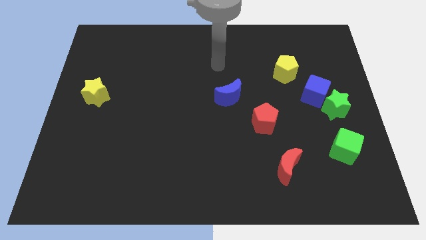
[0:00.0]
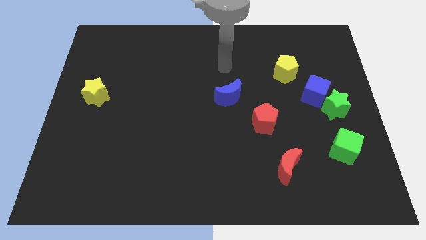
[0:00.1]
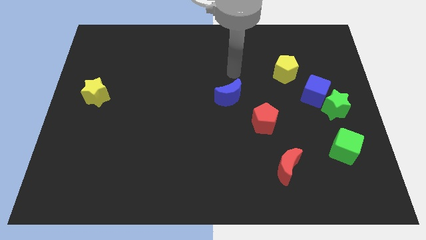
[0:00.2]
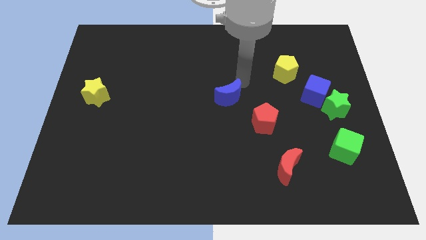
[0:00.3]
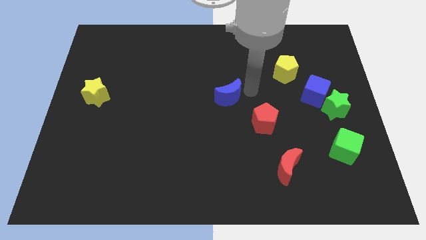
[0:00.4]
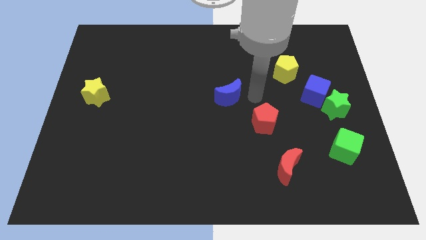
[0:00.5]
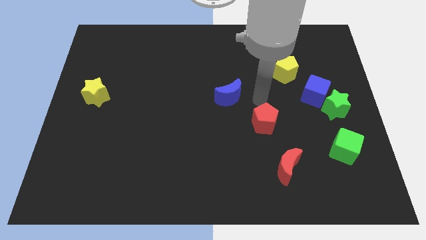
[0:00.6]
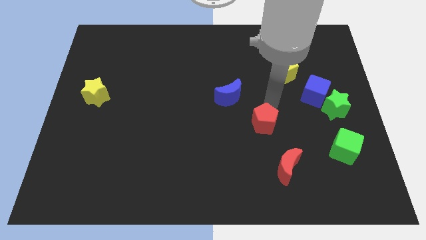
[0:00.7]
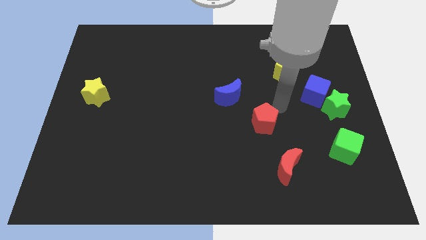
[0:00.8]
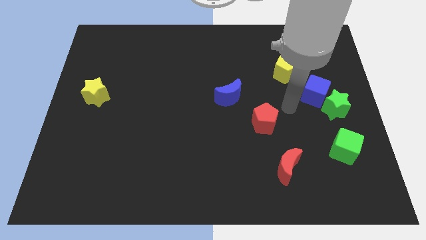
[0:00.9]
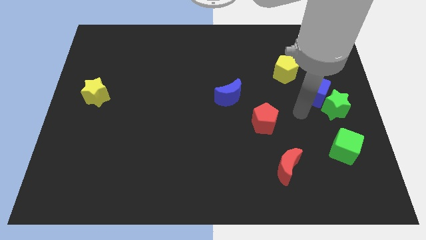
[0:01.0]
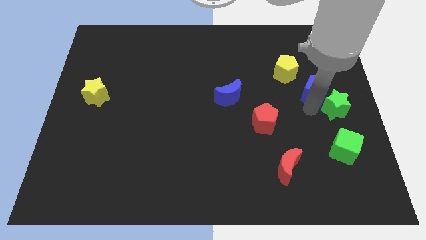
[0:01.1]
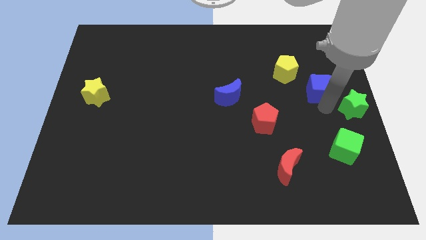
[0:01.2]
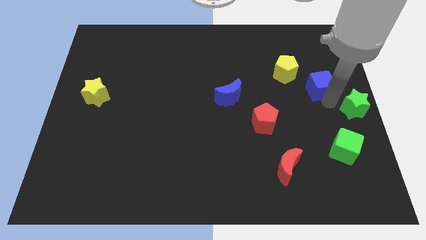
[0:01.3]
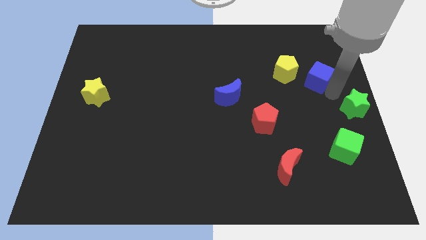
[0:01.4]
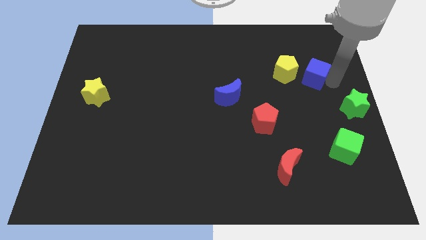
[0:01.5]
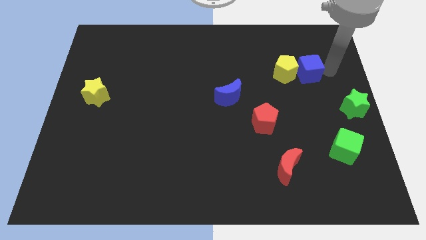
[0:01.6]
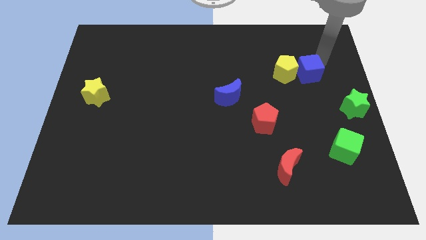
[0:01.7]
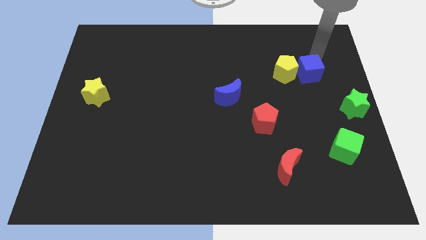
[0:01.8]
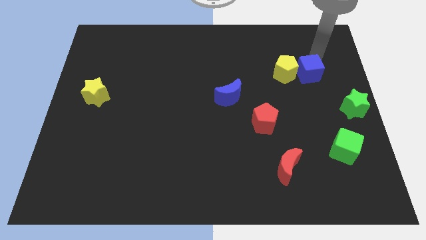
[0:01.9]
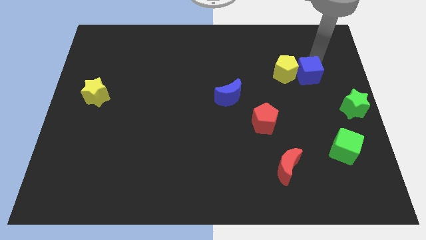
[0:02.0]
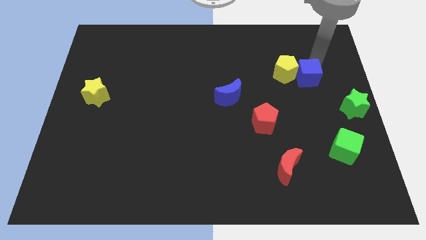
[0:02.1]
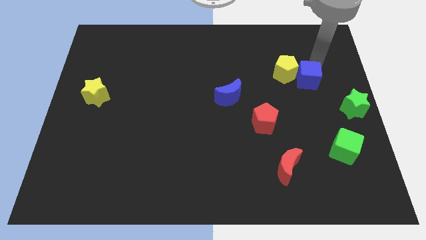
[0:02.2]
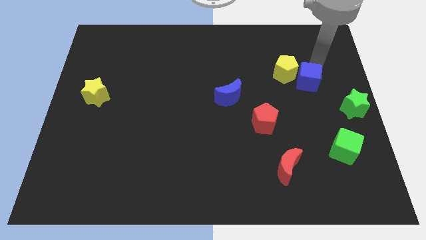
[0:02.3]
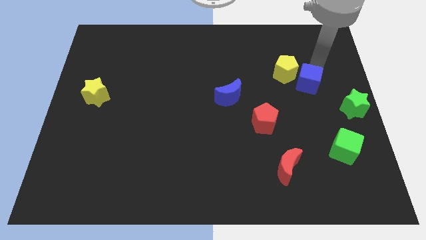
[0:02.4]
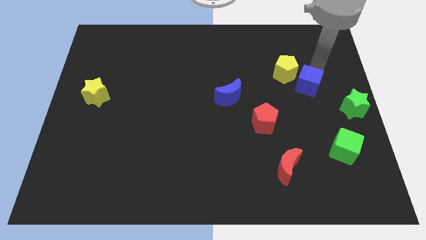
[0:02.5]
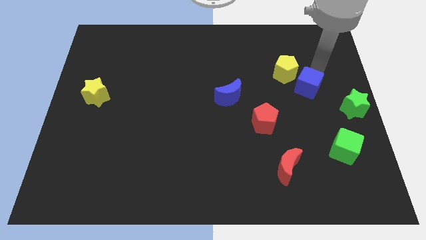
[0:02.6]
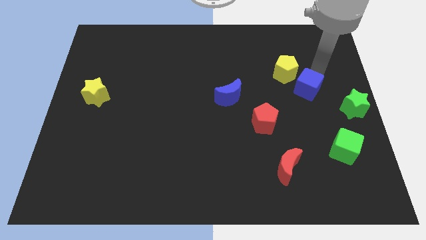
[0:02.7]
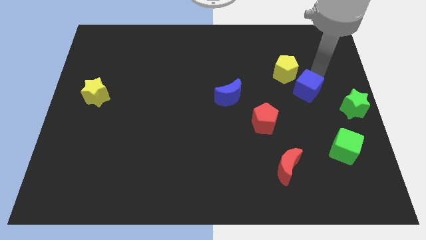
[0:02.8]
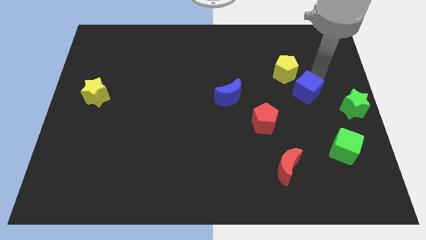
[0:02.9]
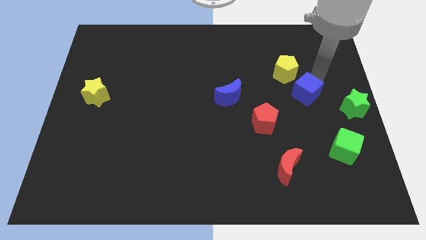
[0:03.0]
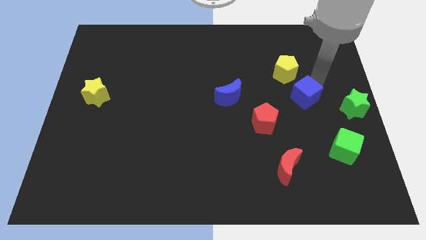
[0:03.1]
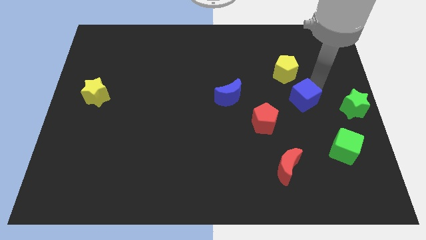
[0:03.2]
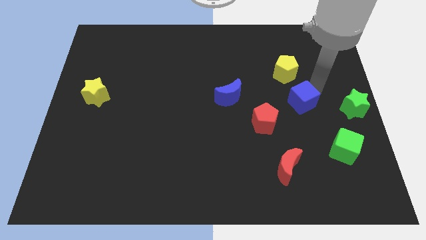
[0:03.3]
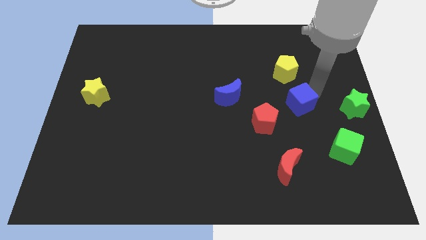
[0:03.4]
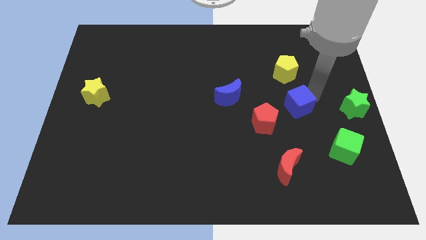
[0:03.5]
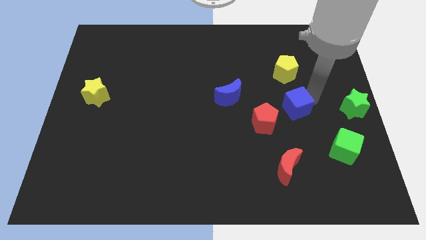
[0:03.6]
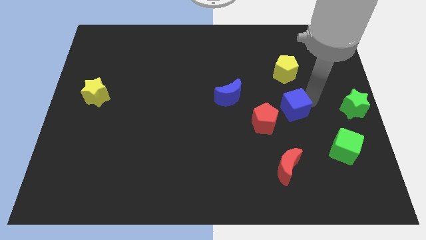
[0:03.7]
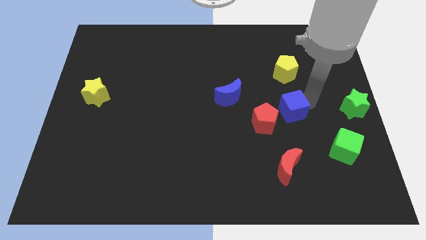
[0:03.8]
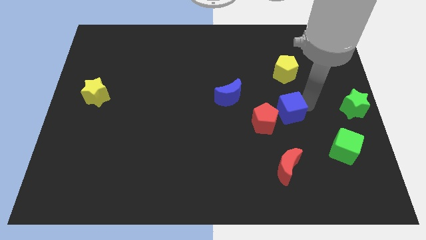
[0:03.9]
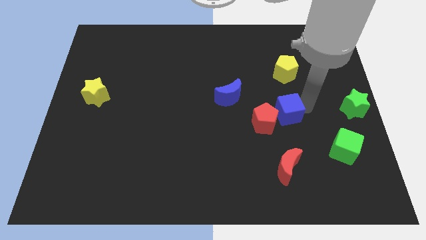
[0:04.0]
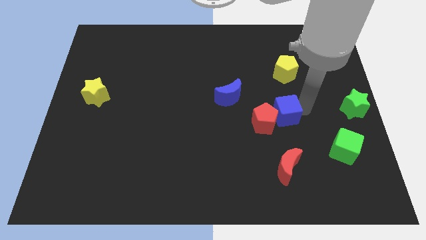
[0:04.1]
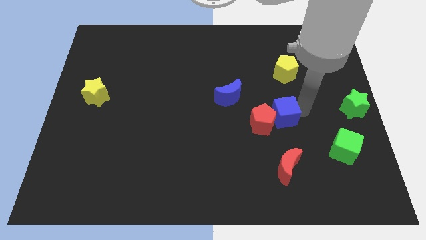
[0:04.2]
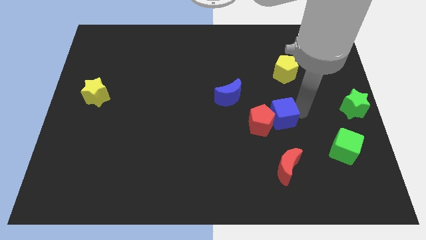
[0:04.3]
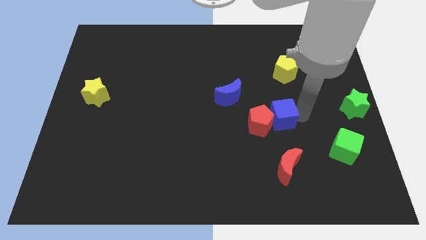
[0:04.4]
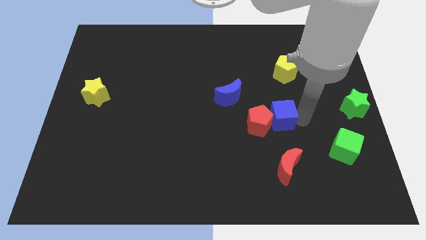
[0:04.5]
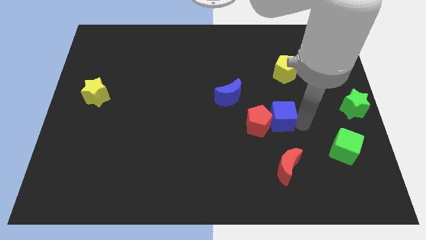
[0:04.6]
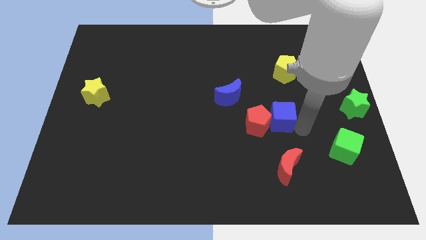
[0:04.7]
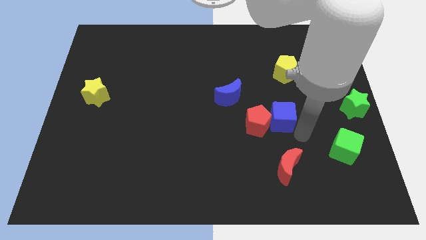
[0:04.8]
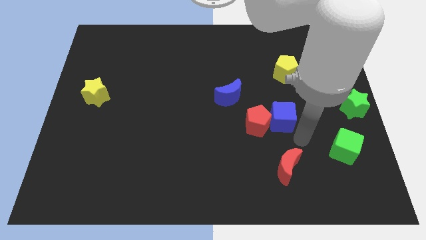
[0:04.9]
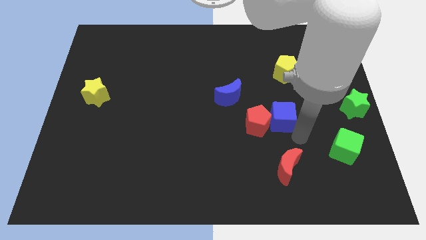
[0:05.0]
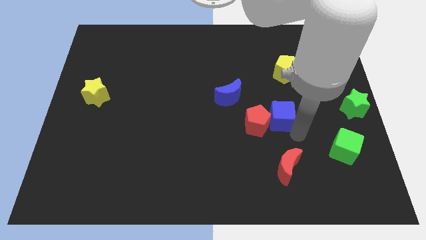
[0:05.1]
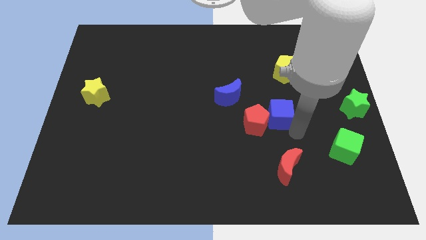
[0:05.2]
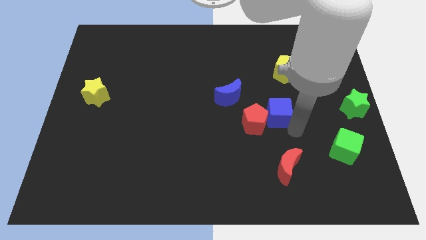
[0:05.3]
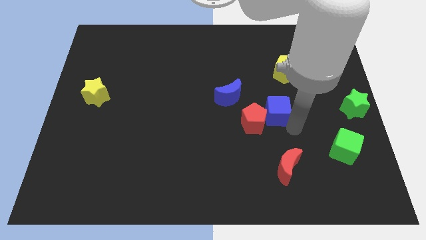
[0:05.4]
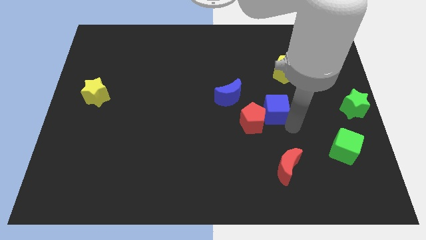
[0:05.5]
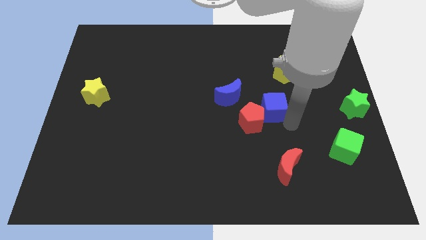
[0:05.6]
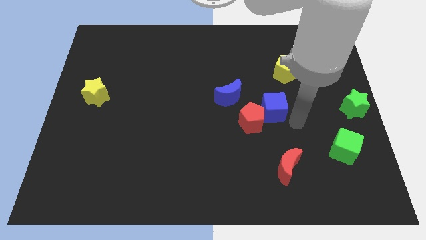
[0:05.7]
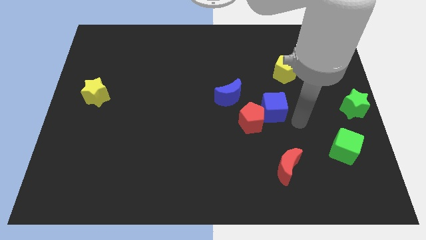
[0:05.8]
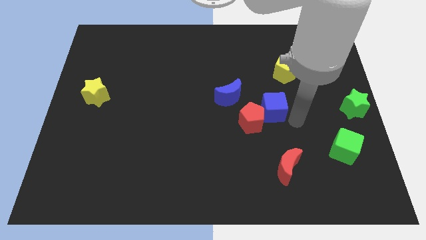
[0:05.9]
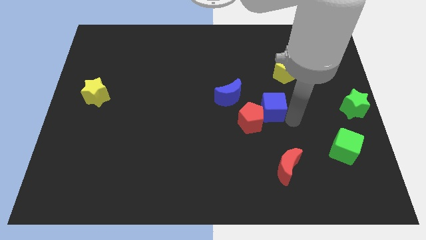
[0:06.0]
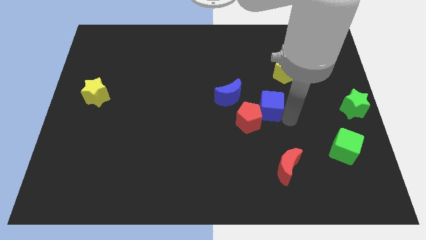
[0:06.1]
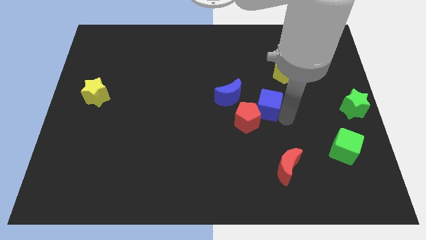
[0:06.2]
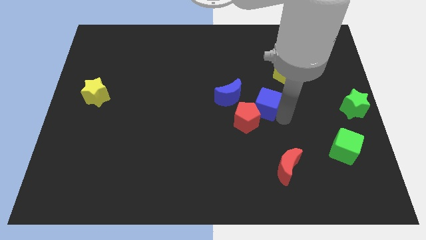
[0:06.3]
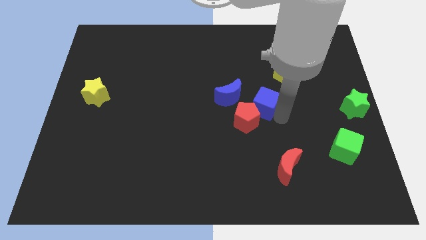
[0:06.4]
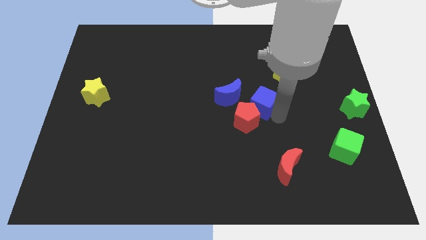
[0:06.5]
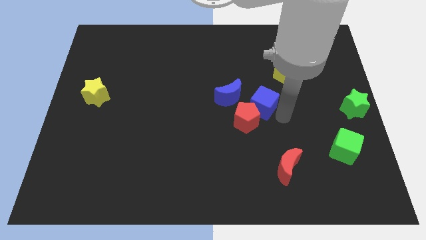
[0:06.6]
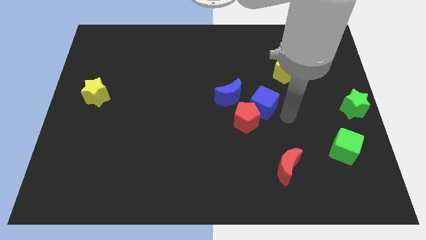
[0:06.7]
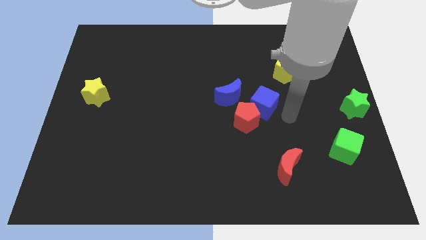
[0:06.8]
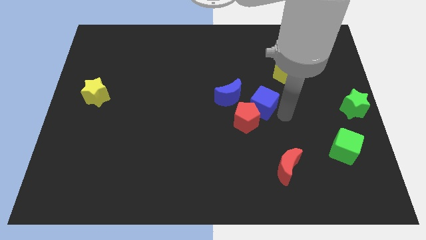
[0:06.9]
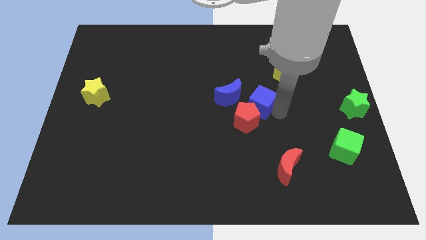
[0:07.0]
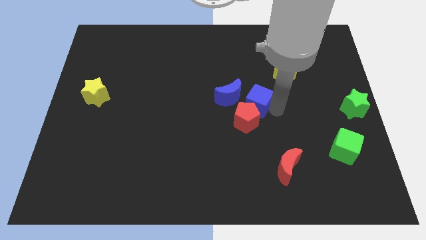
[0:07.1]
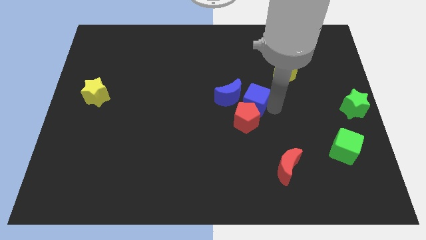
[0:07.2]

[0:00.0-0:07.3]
slide the blue cube to the blue moon

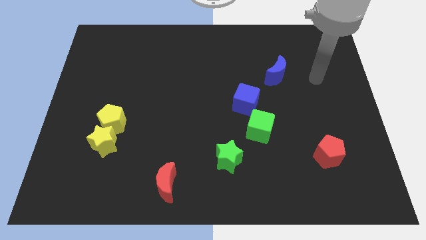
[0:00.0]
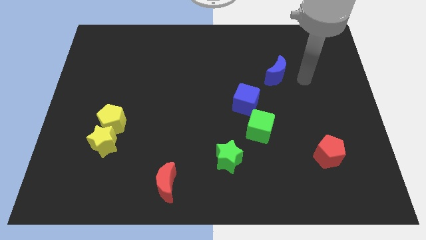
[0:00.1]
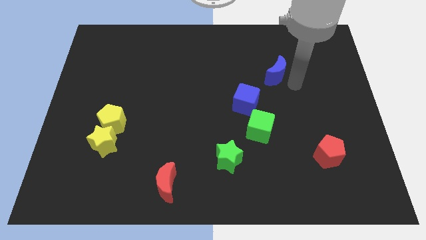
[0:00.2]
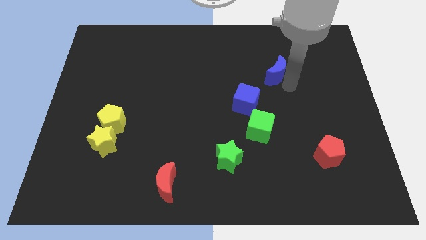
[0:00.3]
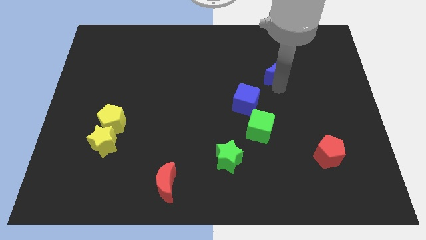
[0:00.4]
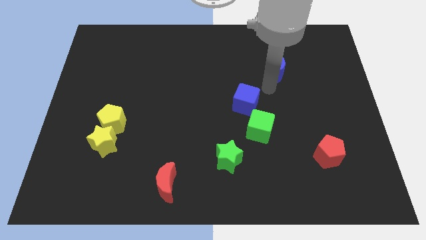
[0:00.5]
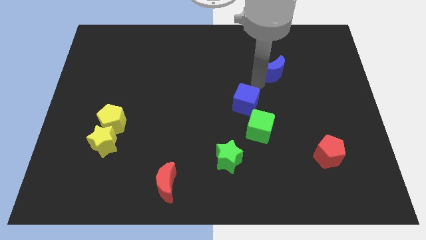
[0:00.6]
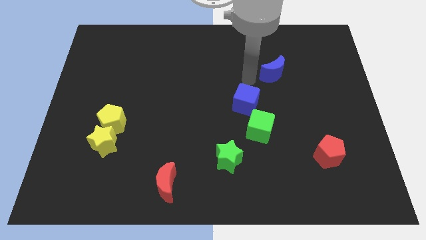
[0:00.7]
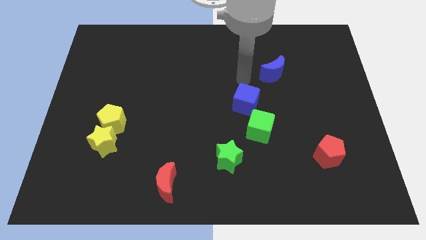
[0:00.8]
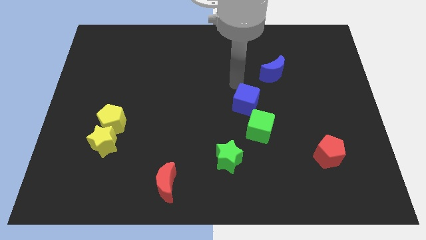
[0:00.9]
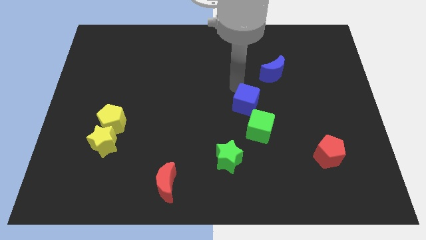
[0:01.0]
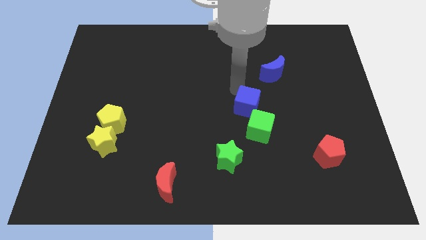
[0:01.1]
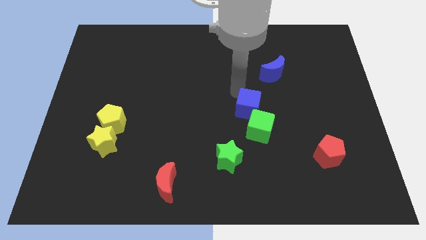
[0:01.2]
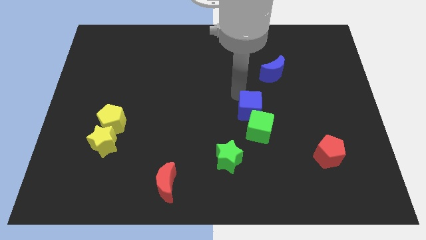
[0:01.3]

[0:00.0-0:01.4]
slide the blue cube to the green cube
